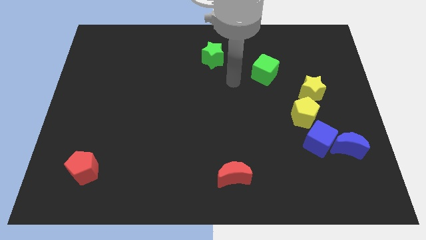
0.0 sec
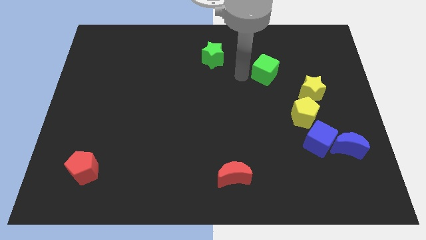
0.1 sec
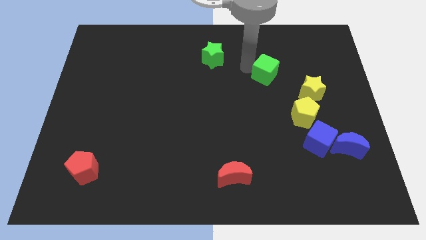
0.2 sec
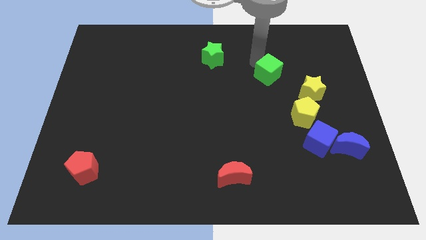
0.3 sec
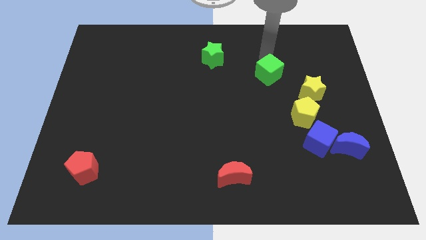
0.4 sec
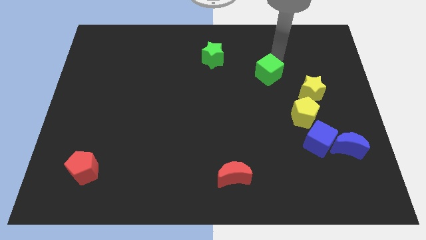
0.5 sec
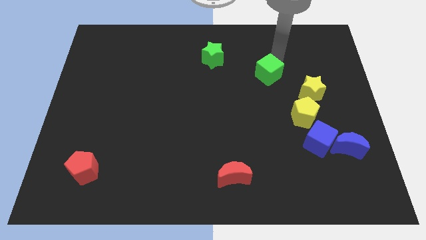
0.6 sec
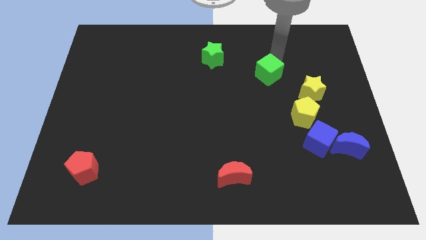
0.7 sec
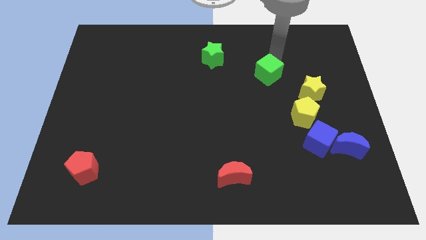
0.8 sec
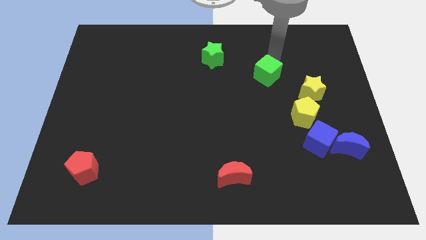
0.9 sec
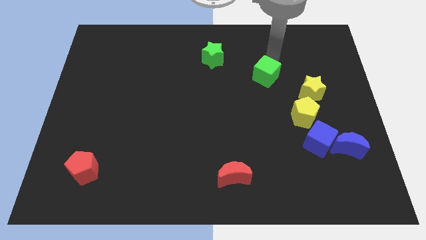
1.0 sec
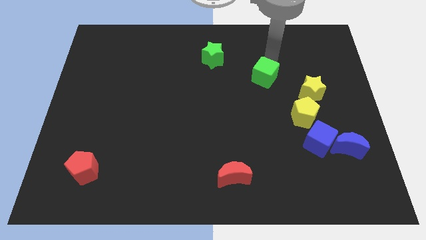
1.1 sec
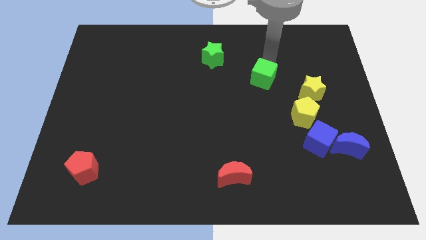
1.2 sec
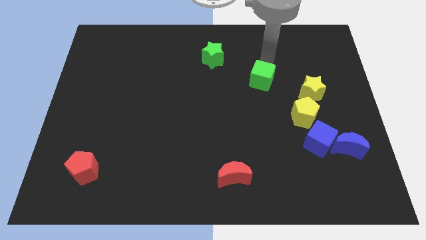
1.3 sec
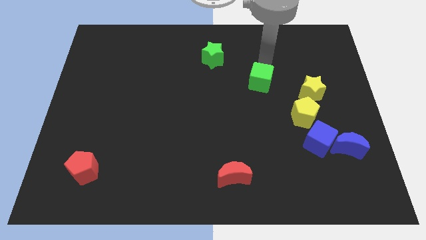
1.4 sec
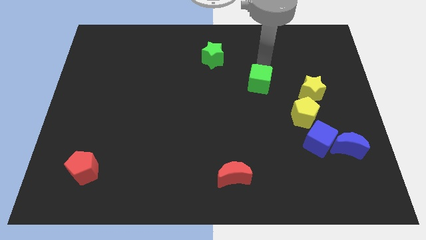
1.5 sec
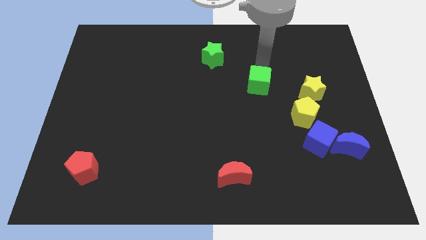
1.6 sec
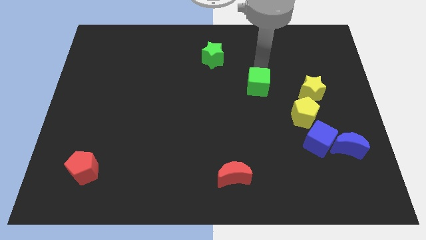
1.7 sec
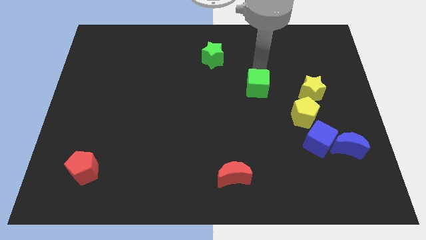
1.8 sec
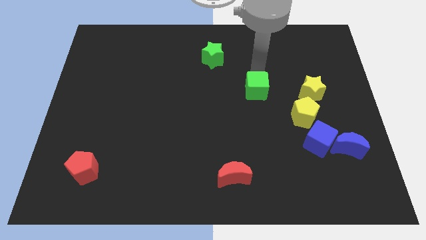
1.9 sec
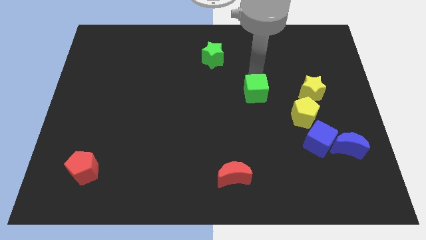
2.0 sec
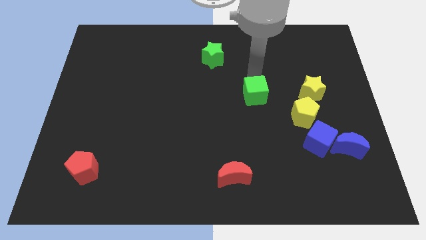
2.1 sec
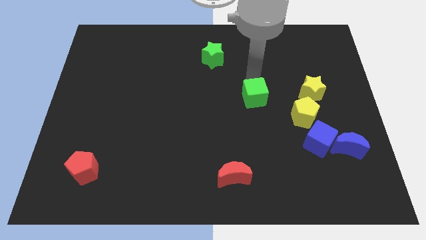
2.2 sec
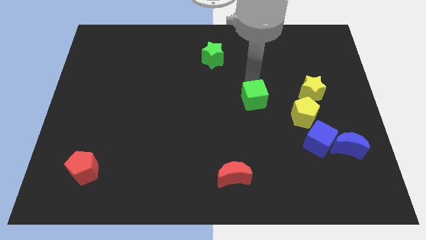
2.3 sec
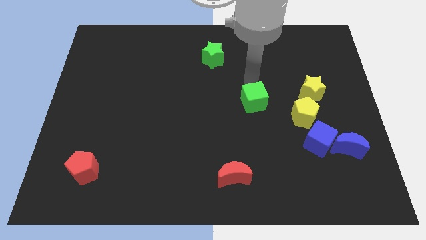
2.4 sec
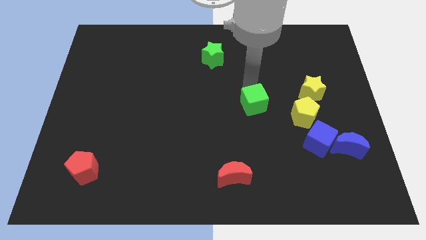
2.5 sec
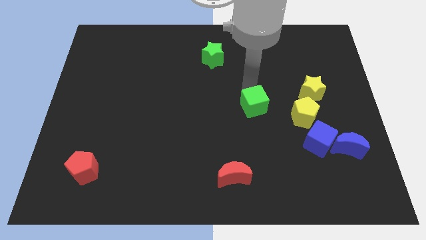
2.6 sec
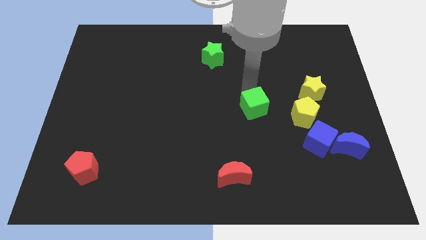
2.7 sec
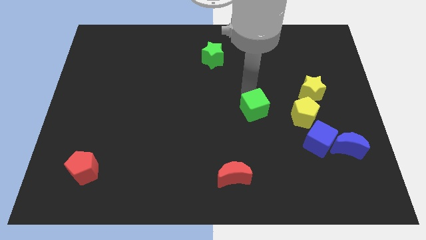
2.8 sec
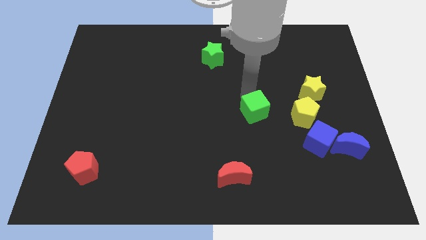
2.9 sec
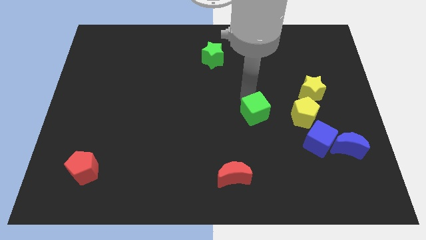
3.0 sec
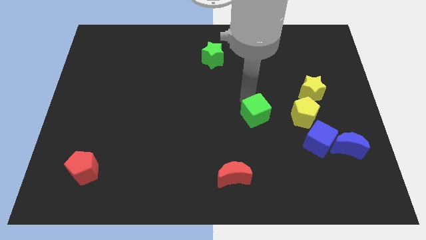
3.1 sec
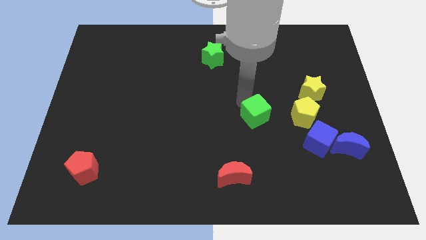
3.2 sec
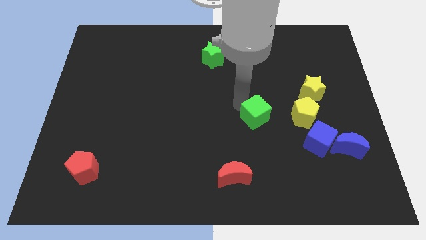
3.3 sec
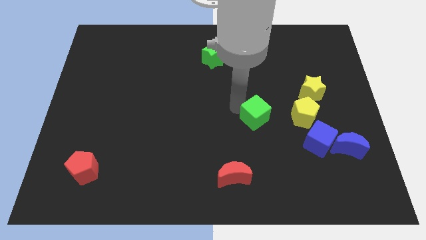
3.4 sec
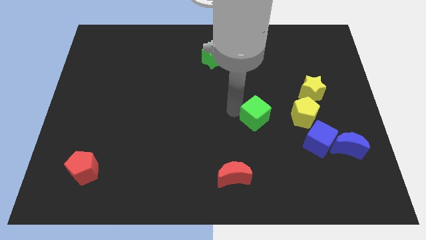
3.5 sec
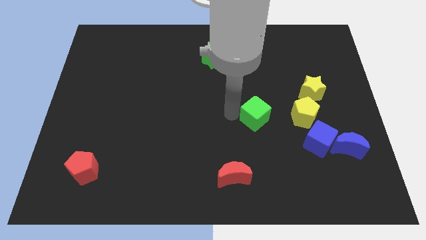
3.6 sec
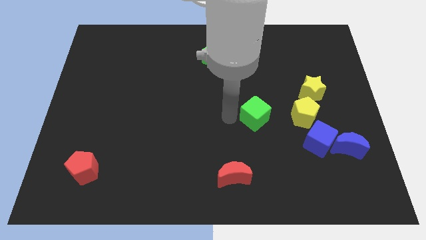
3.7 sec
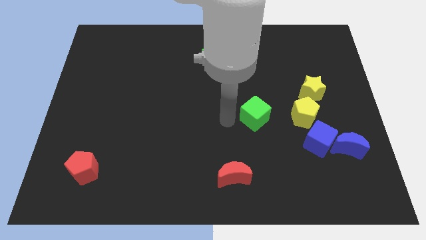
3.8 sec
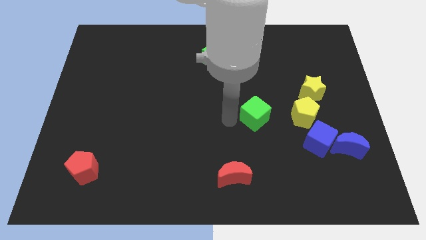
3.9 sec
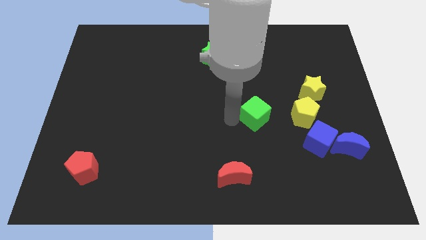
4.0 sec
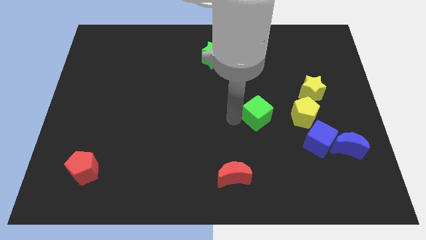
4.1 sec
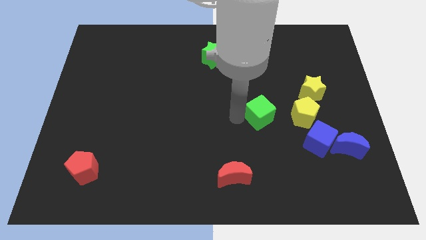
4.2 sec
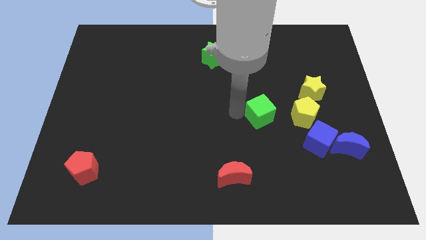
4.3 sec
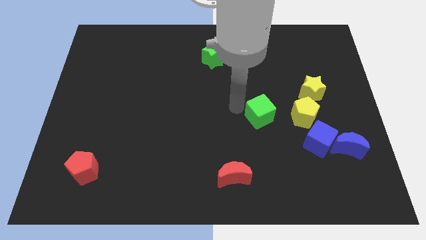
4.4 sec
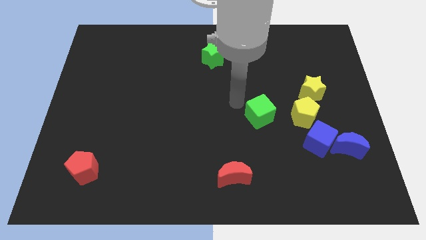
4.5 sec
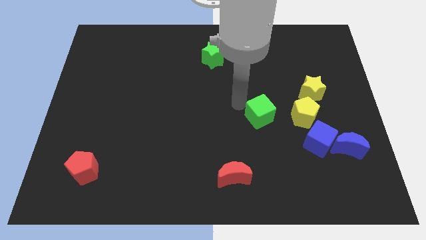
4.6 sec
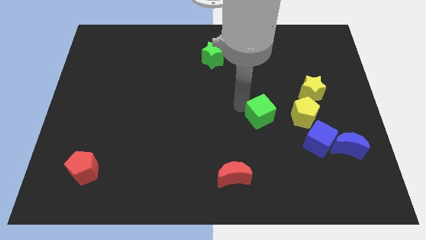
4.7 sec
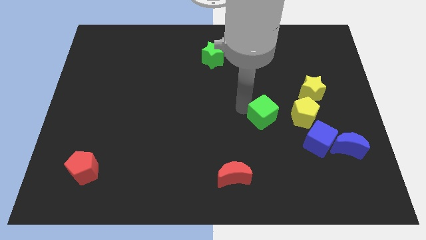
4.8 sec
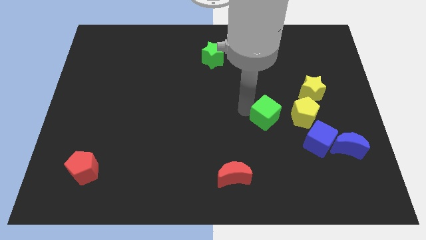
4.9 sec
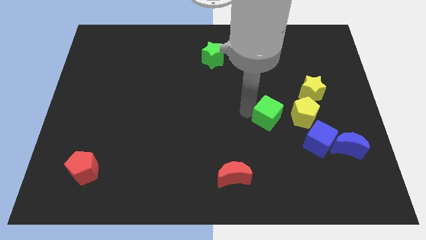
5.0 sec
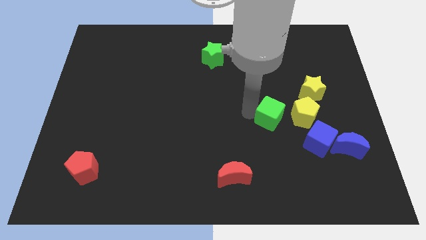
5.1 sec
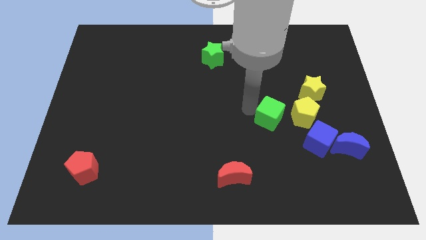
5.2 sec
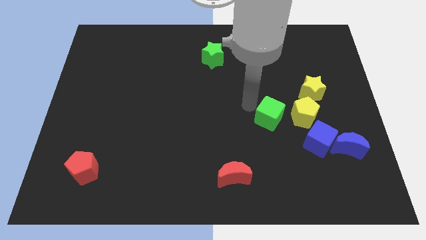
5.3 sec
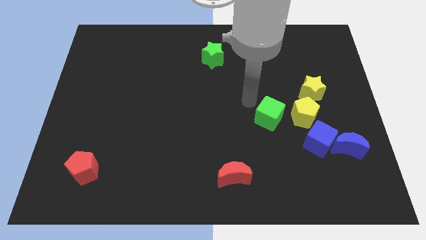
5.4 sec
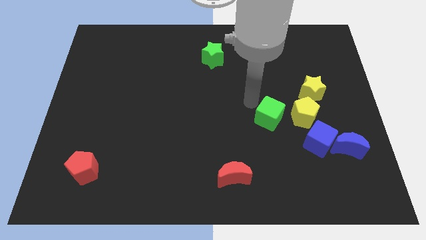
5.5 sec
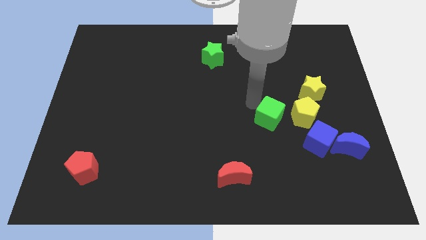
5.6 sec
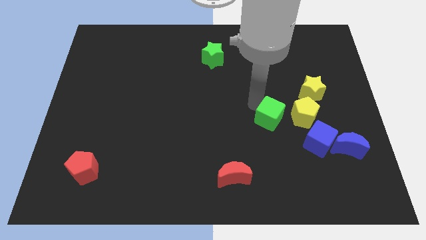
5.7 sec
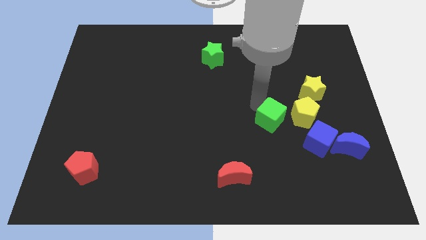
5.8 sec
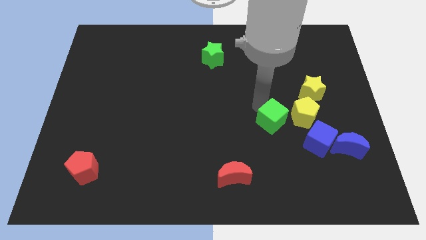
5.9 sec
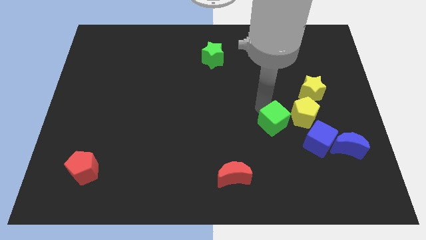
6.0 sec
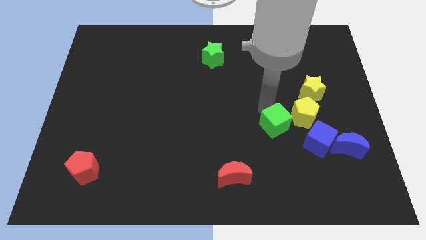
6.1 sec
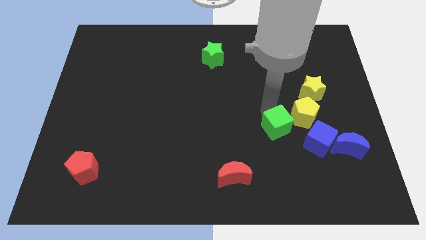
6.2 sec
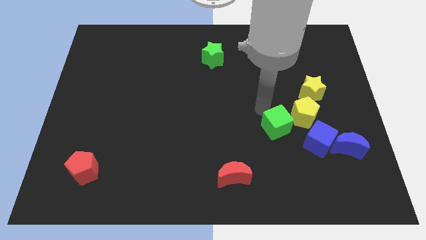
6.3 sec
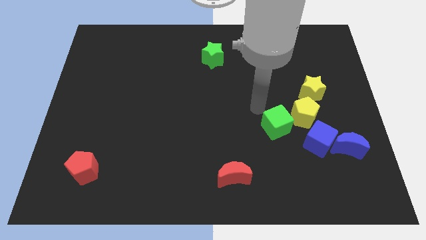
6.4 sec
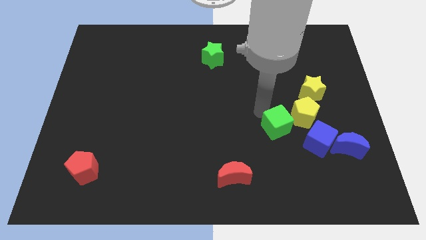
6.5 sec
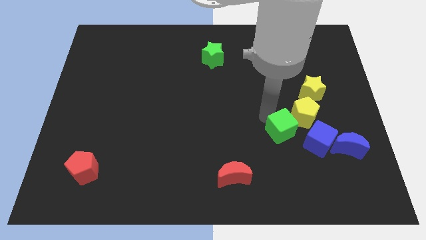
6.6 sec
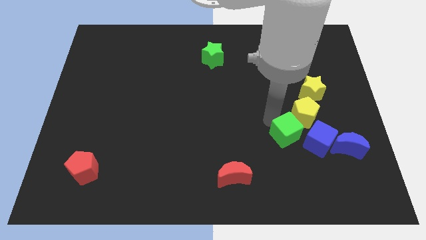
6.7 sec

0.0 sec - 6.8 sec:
put the green cube to the bottom side of the yellow pentagon

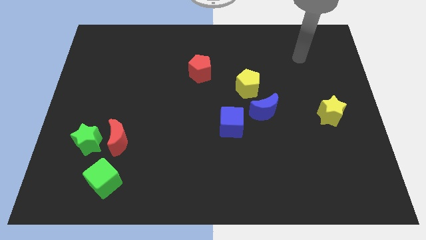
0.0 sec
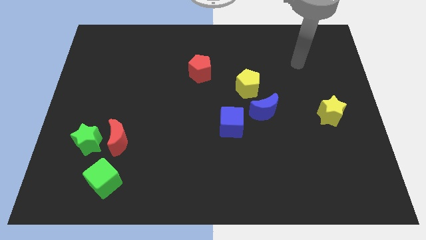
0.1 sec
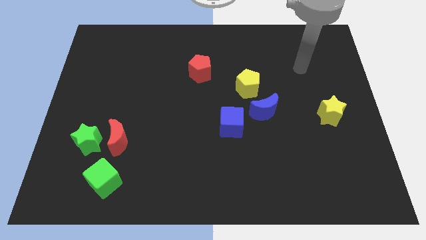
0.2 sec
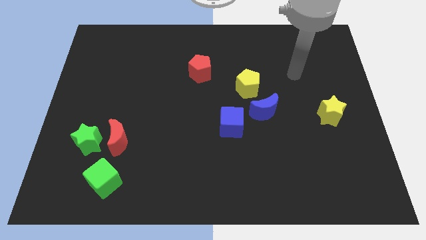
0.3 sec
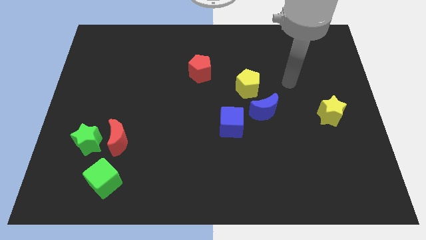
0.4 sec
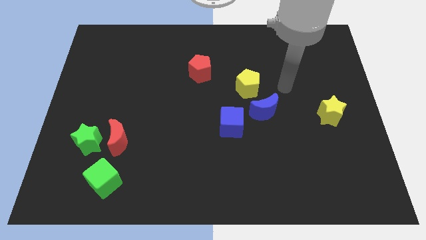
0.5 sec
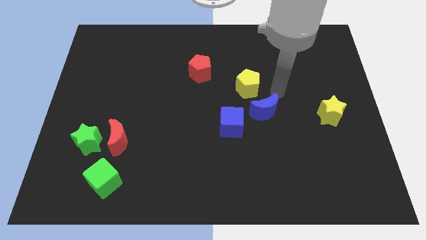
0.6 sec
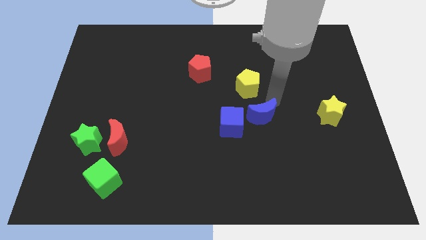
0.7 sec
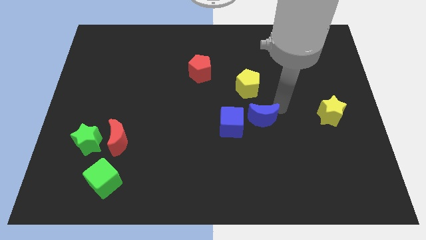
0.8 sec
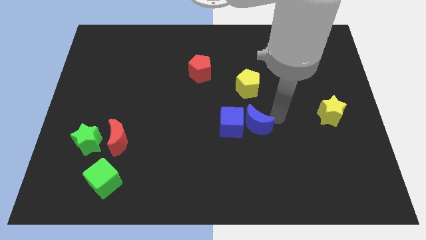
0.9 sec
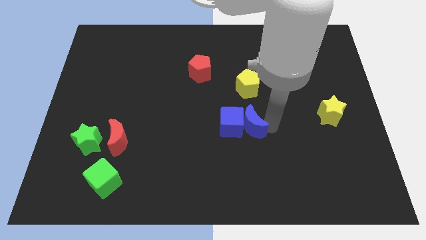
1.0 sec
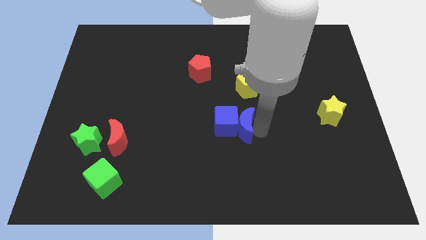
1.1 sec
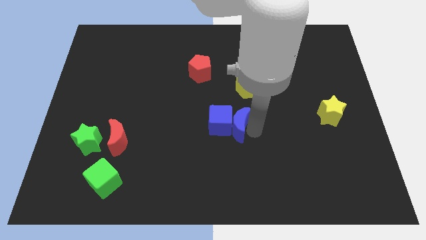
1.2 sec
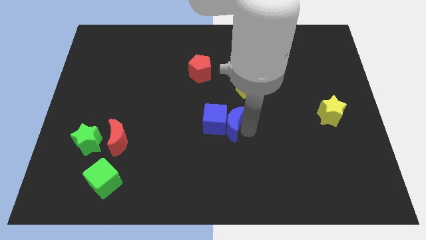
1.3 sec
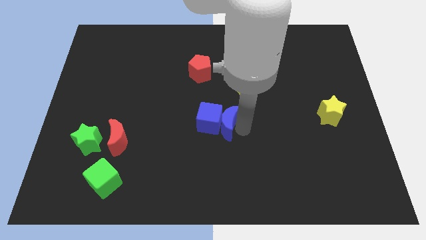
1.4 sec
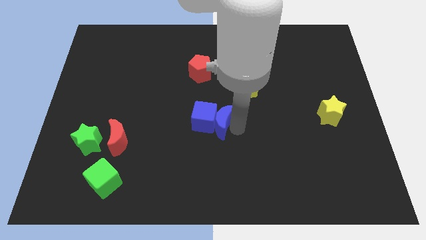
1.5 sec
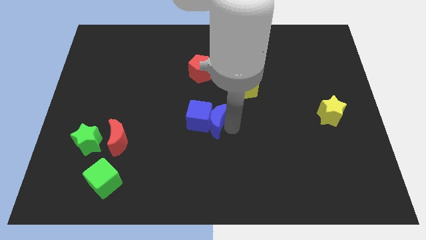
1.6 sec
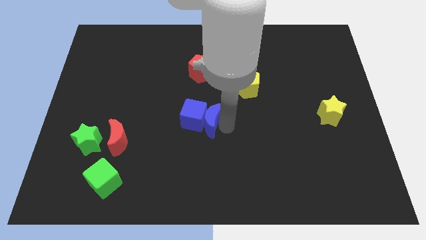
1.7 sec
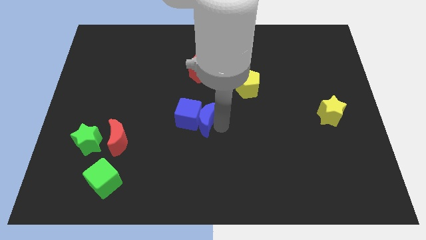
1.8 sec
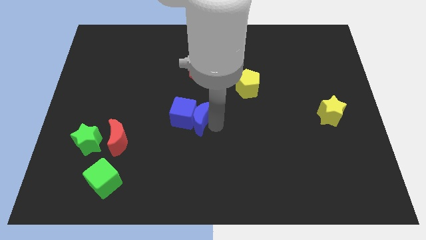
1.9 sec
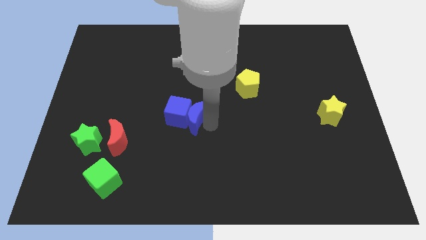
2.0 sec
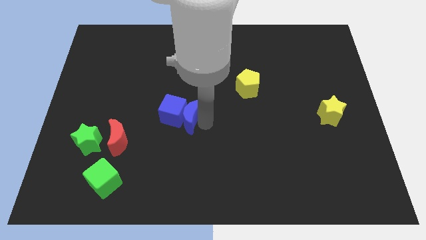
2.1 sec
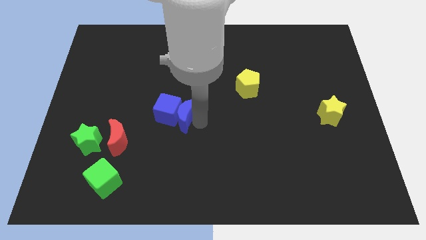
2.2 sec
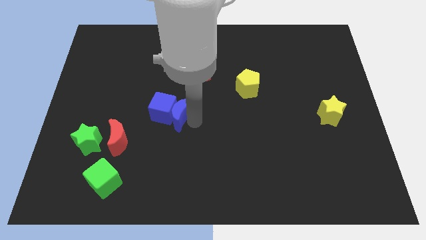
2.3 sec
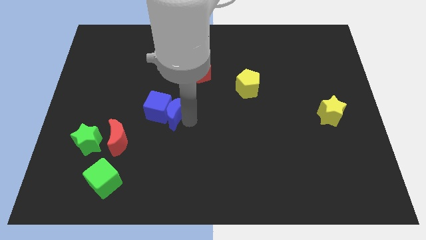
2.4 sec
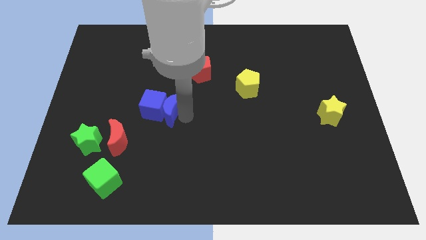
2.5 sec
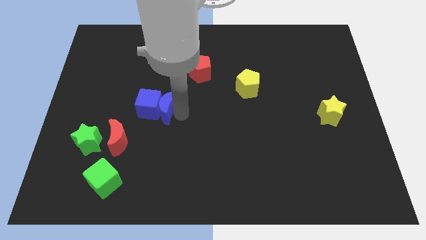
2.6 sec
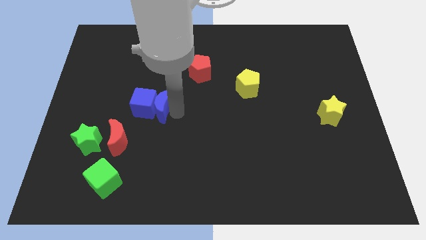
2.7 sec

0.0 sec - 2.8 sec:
move the blue cube above the red moon
